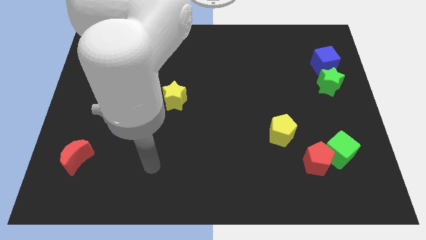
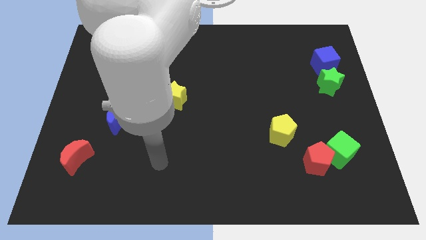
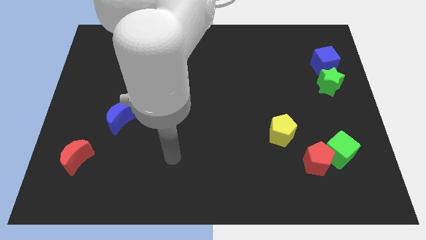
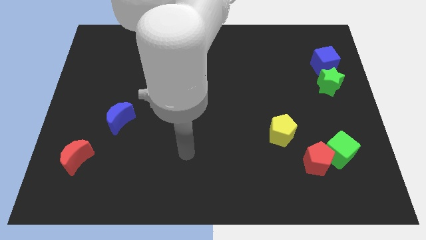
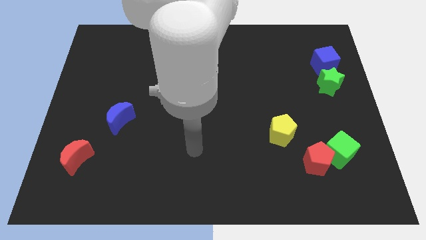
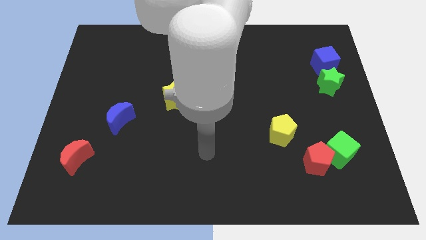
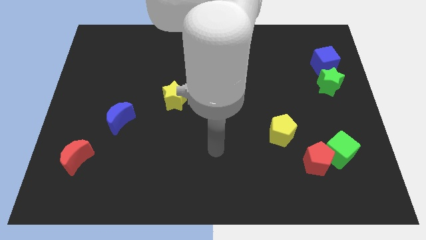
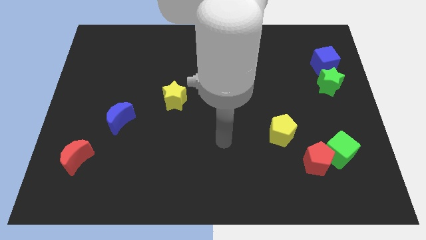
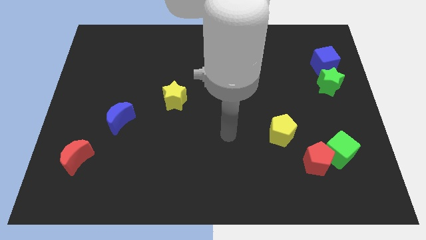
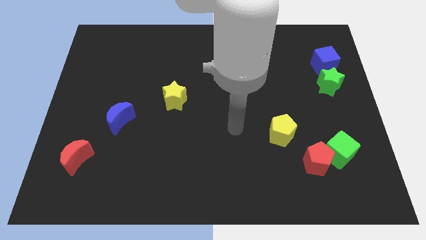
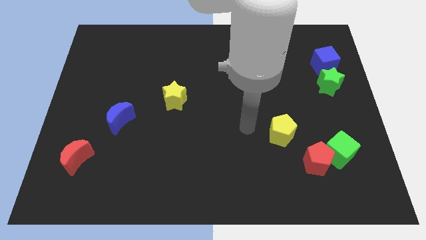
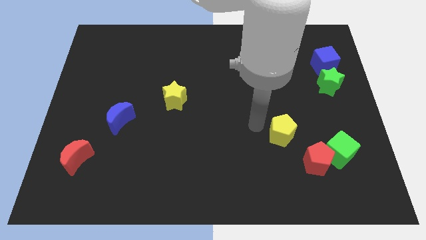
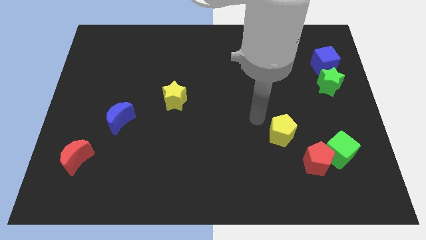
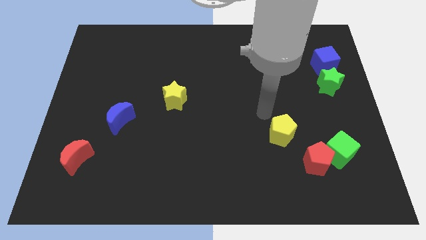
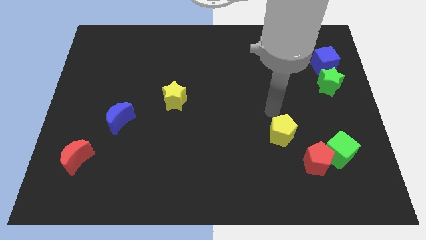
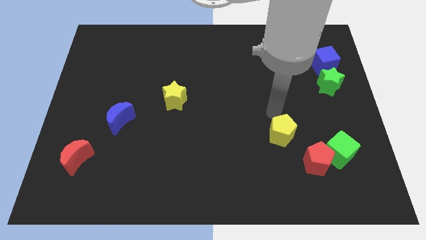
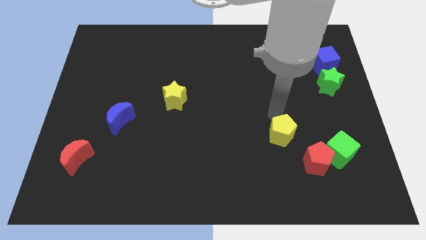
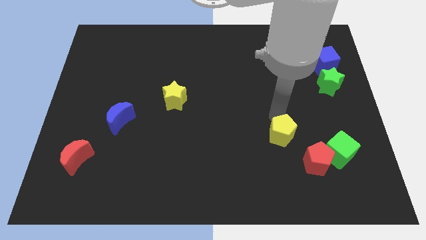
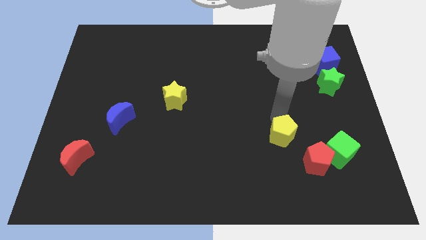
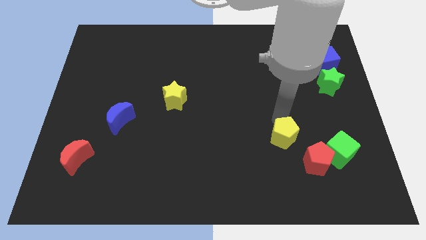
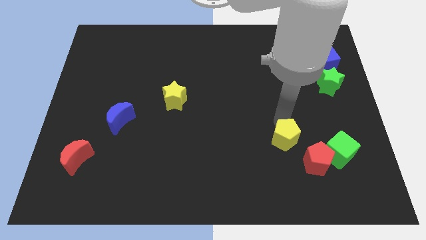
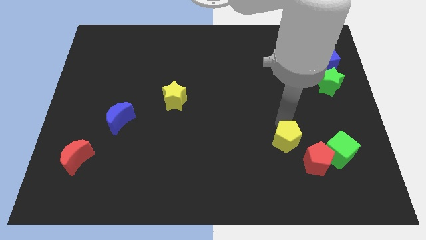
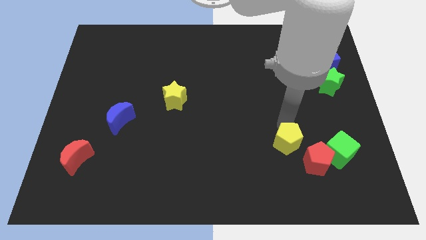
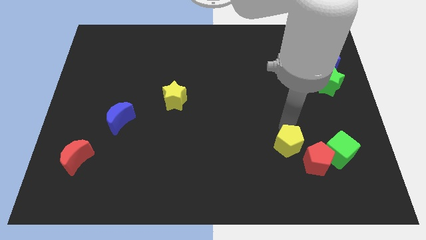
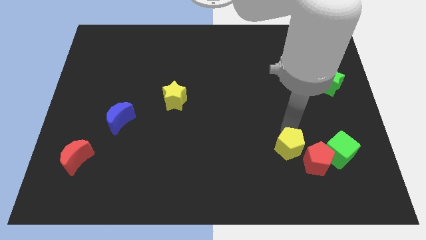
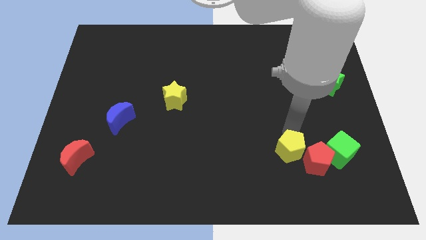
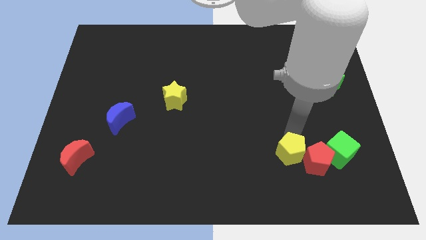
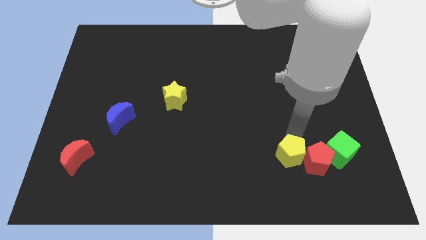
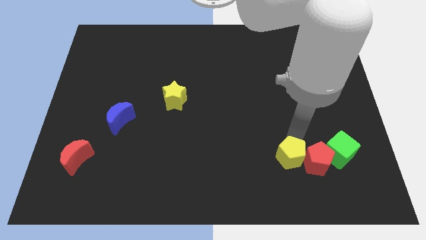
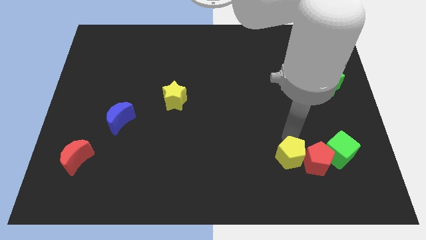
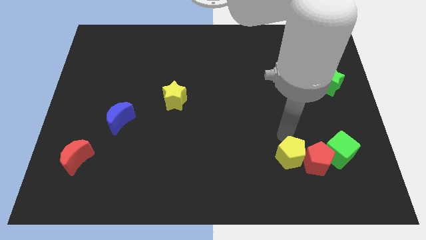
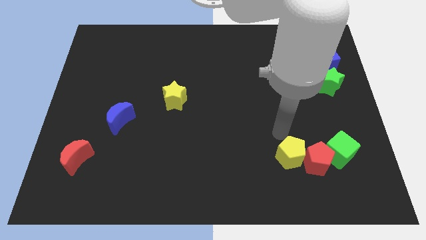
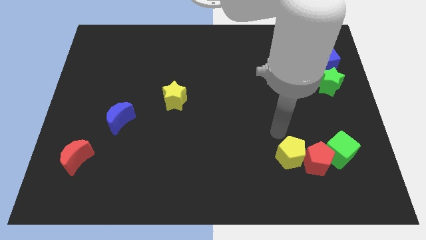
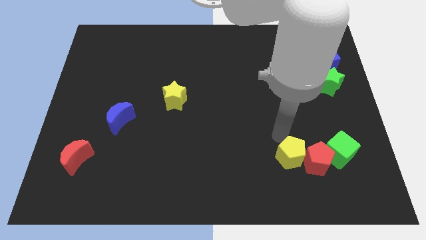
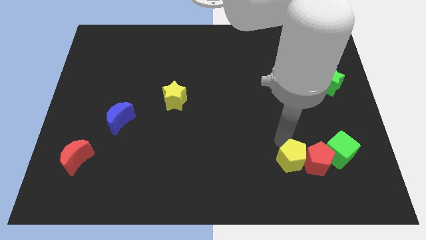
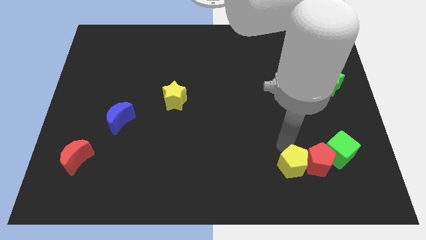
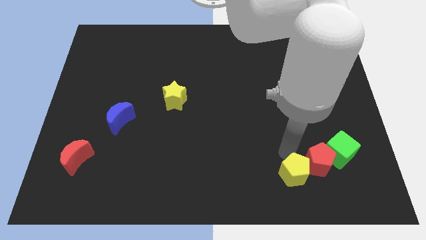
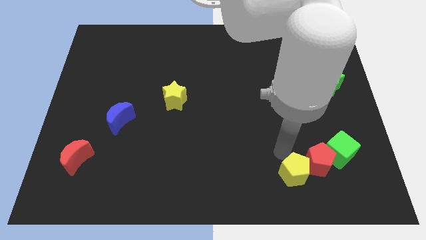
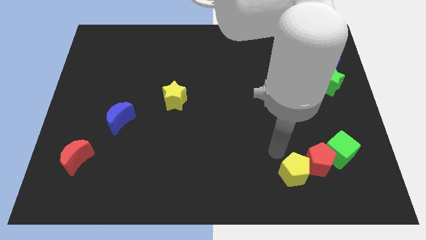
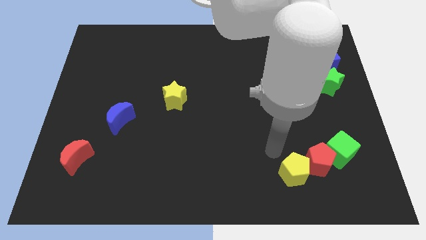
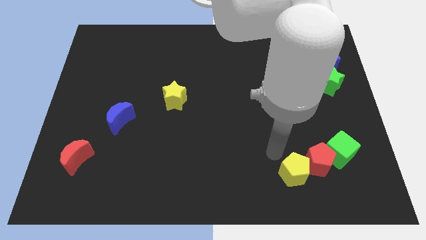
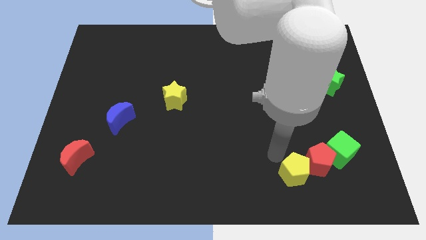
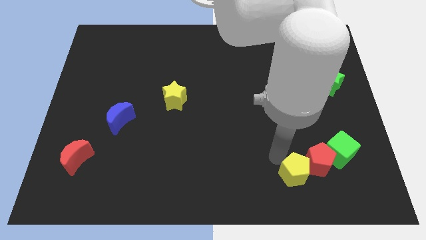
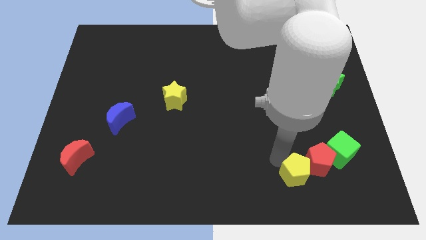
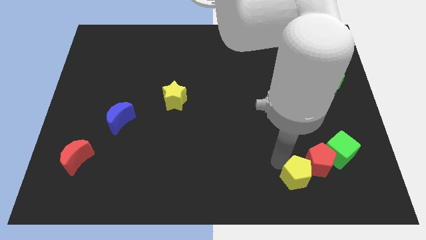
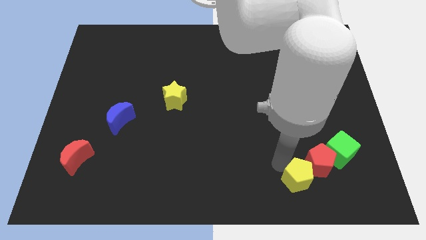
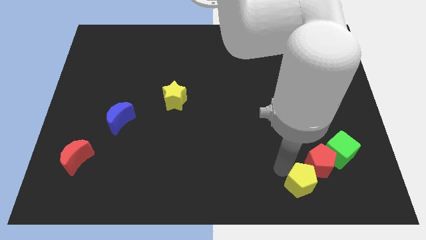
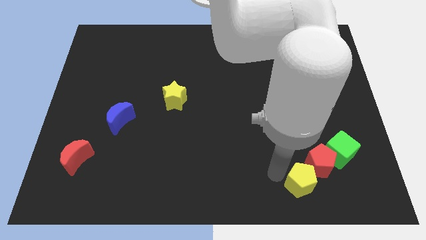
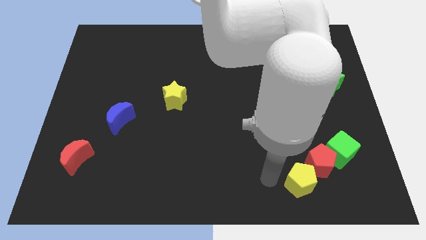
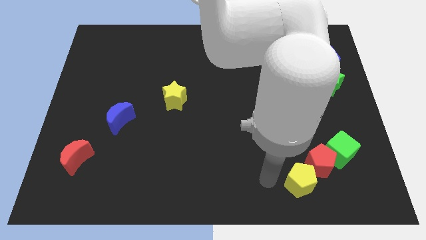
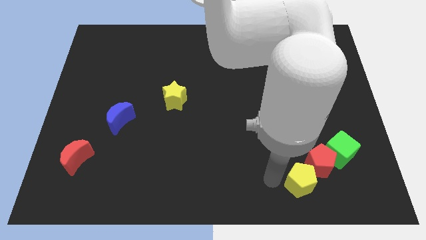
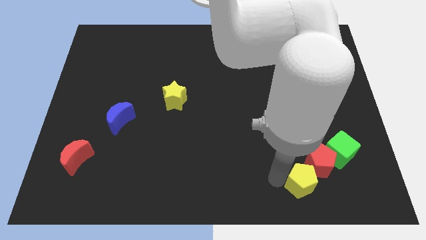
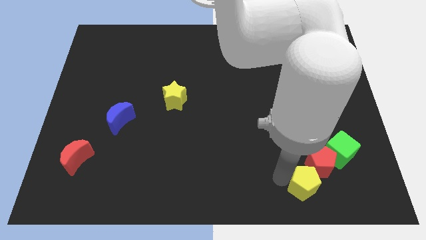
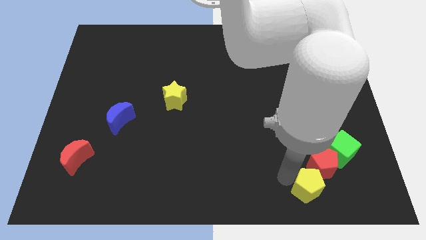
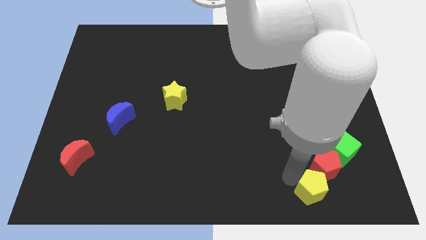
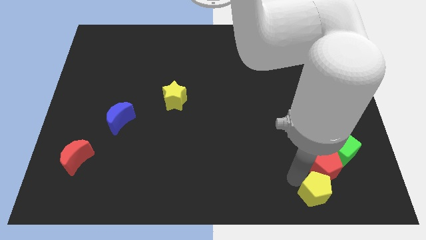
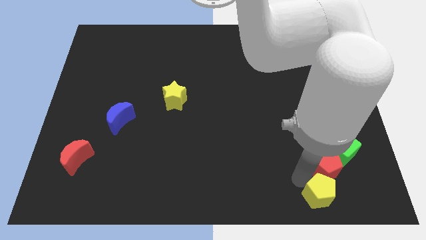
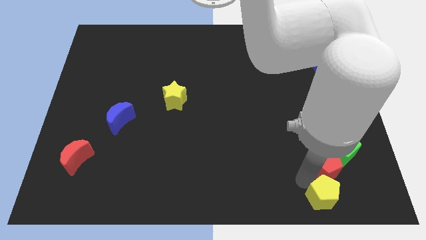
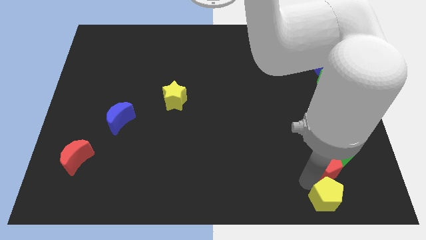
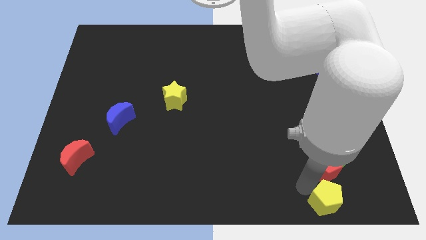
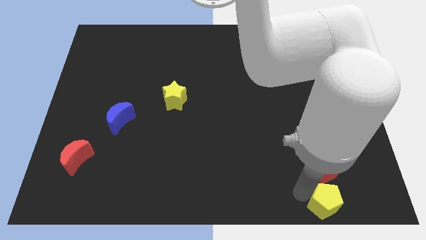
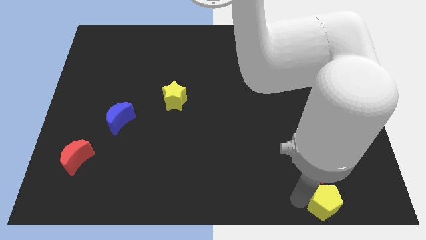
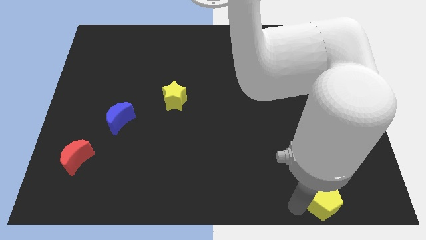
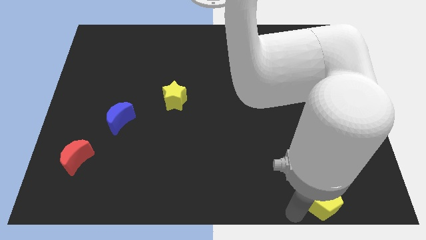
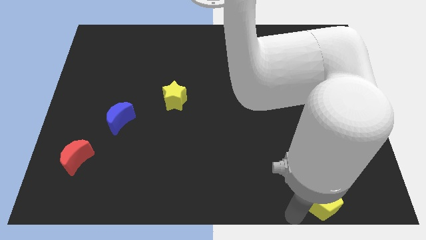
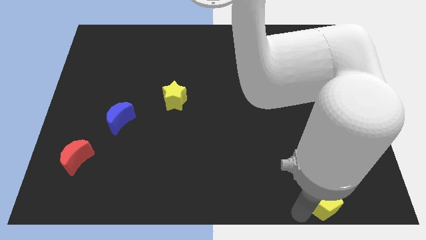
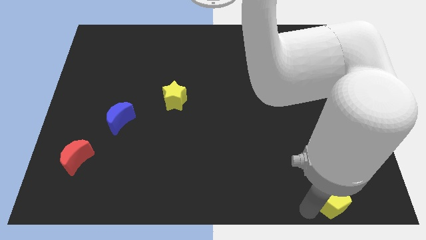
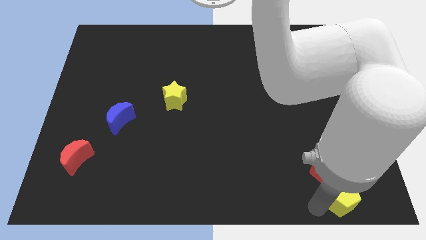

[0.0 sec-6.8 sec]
push the yellow pentagon to the bottom right side of the red pentagon

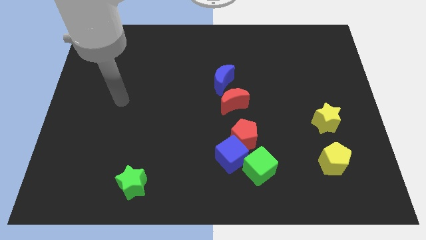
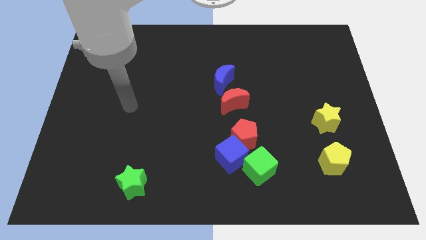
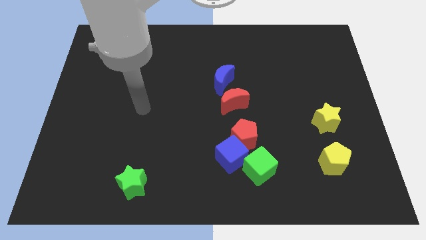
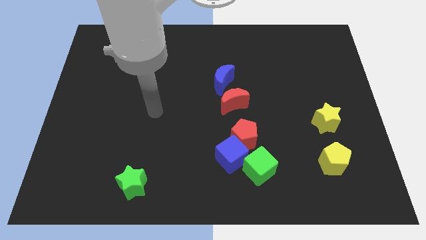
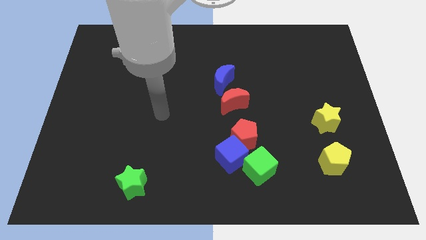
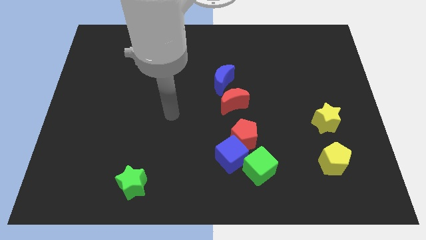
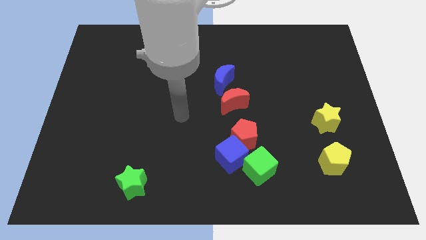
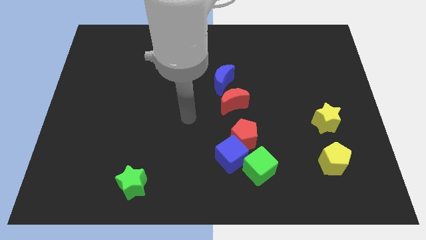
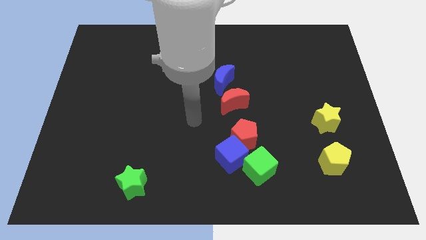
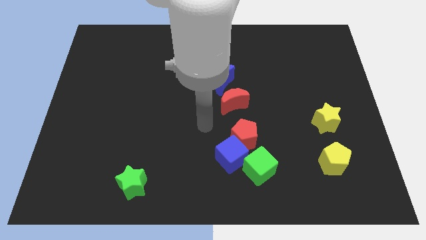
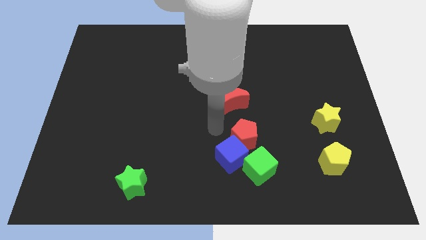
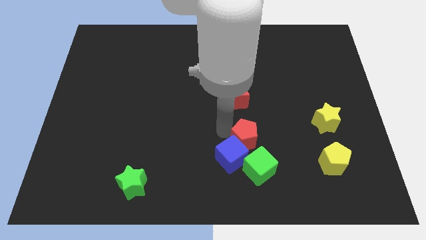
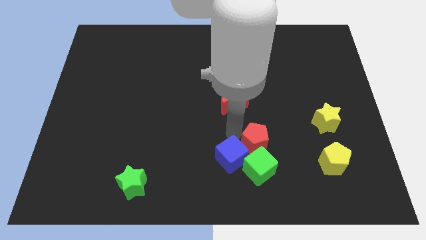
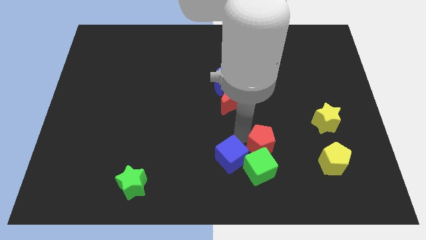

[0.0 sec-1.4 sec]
put the red pentagon to the top right of the green cube
